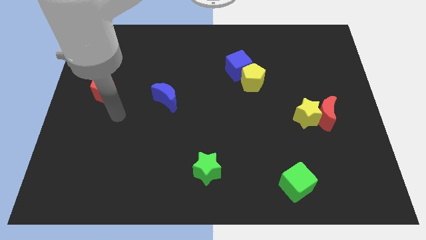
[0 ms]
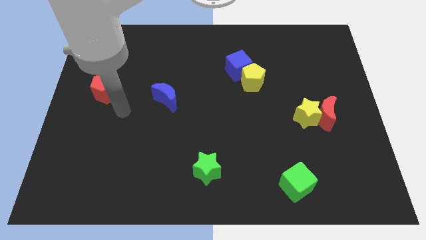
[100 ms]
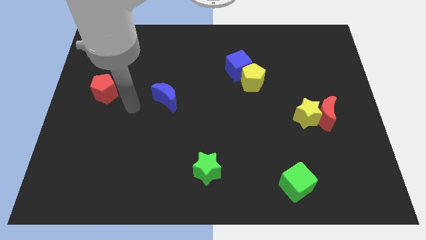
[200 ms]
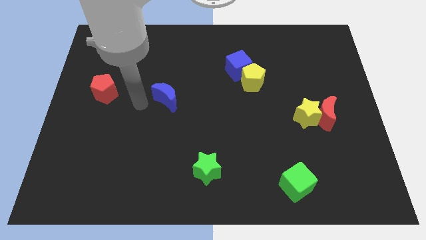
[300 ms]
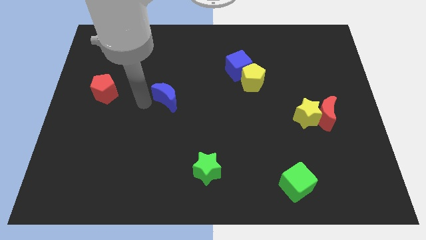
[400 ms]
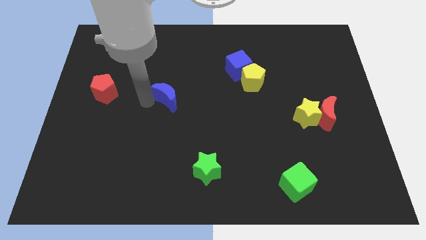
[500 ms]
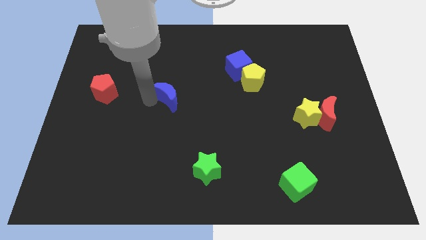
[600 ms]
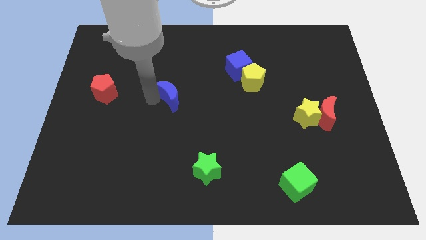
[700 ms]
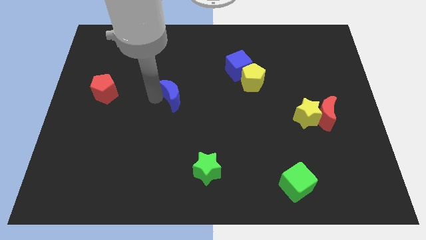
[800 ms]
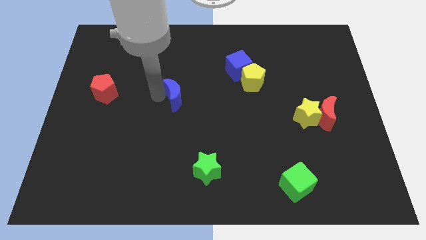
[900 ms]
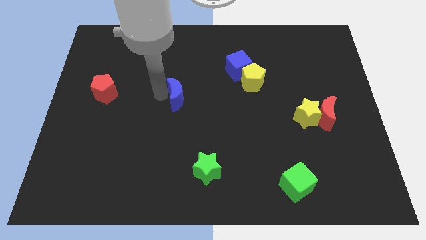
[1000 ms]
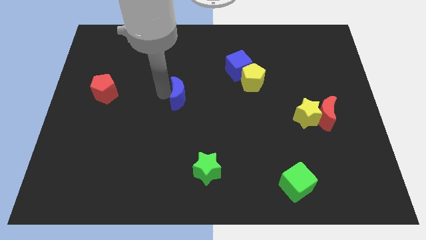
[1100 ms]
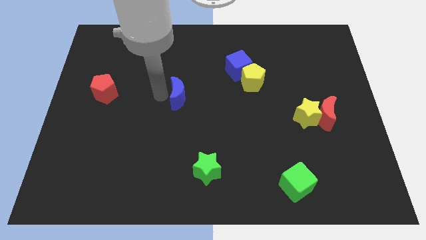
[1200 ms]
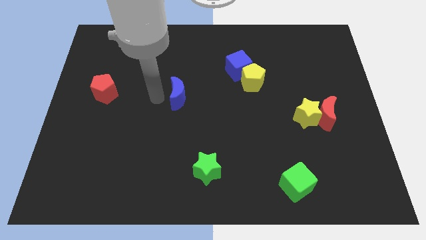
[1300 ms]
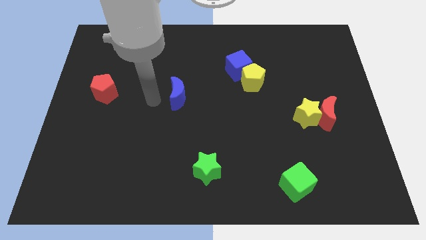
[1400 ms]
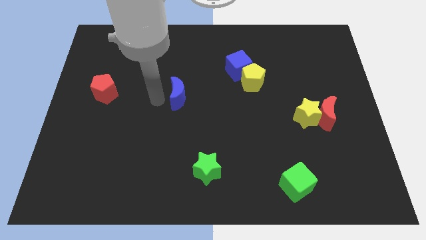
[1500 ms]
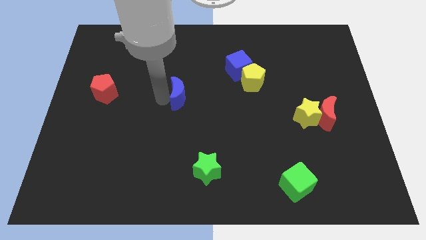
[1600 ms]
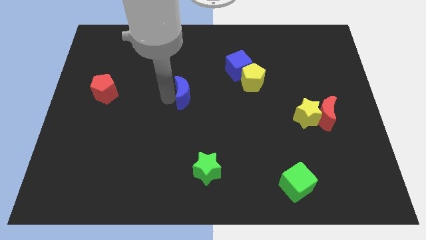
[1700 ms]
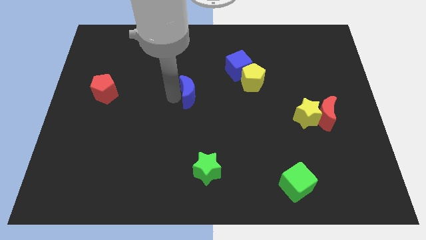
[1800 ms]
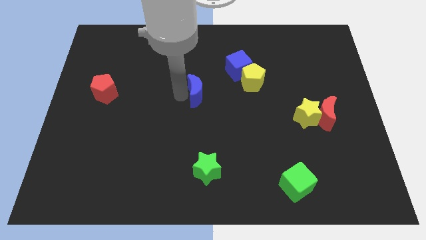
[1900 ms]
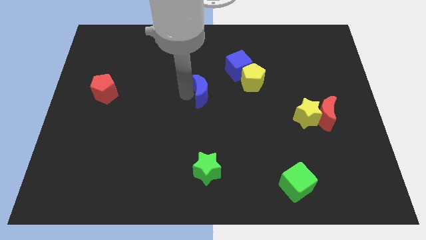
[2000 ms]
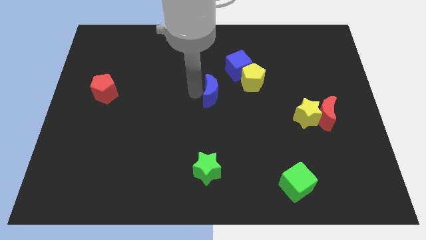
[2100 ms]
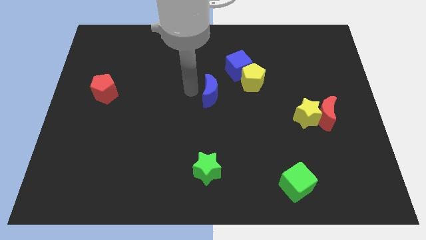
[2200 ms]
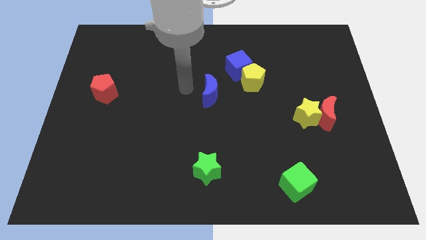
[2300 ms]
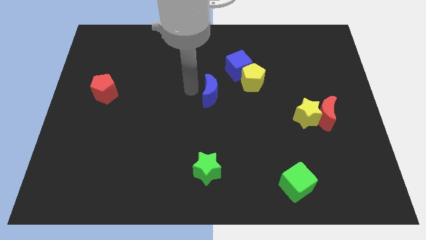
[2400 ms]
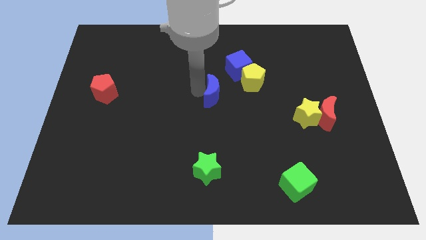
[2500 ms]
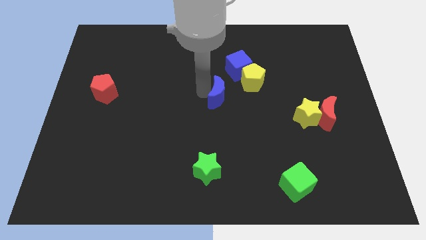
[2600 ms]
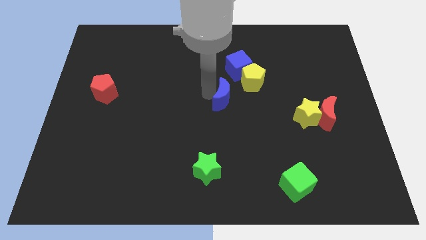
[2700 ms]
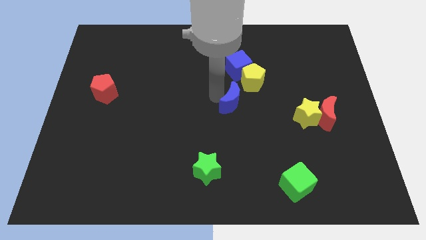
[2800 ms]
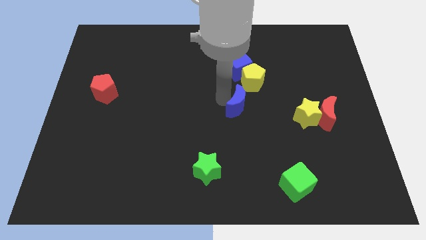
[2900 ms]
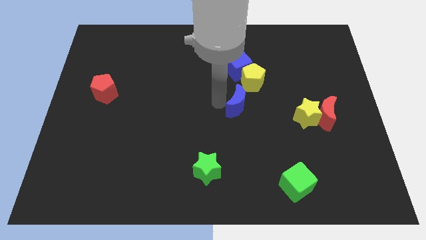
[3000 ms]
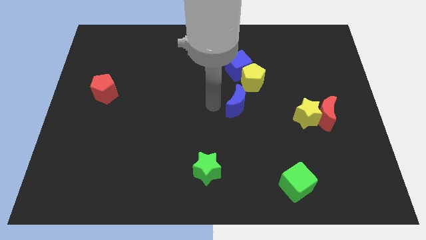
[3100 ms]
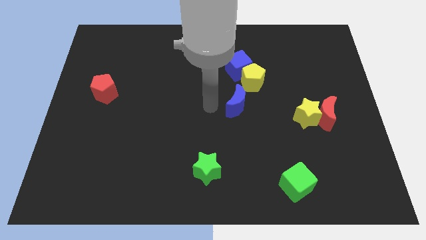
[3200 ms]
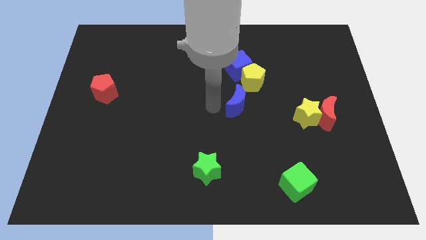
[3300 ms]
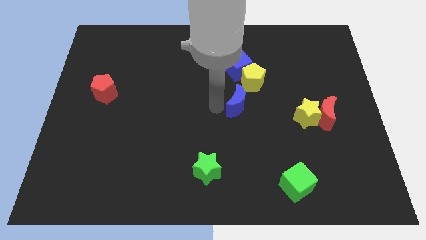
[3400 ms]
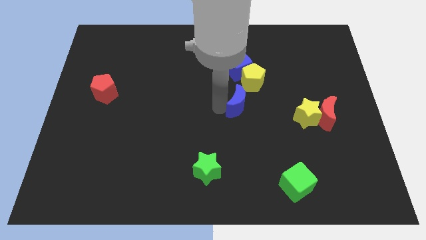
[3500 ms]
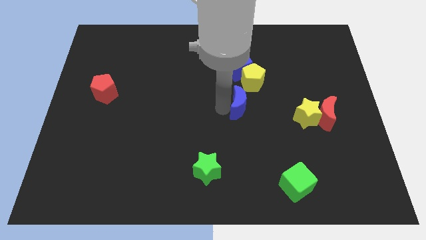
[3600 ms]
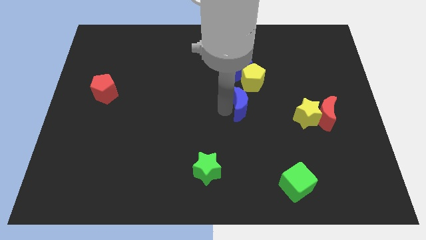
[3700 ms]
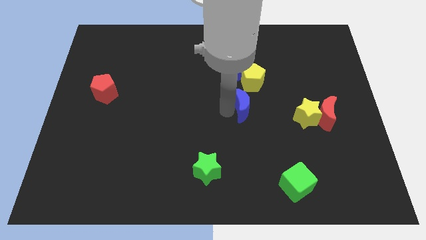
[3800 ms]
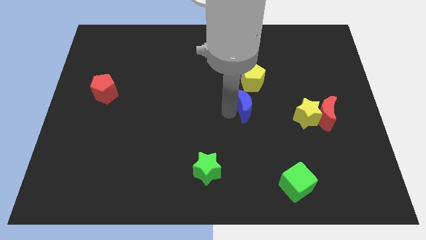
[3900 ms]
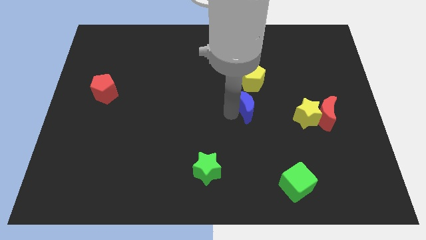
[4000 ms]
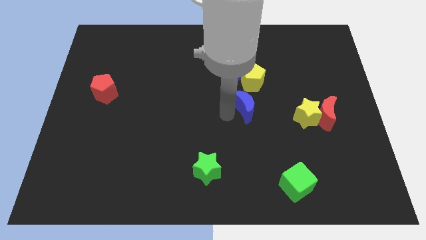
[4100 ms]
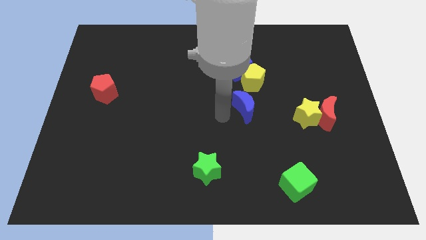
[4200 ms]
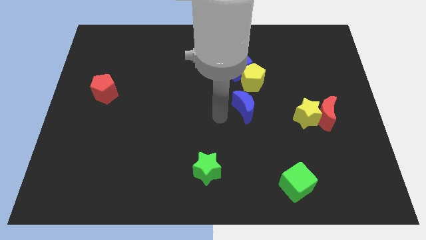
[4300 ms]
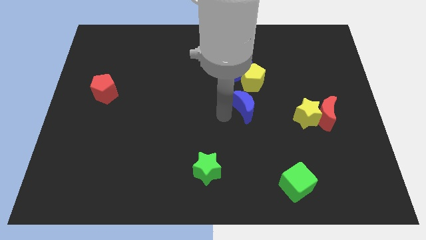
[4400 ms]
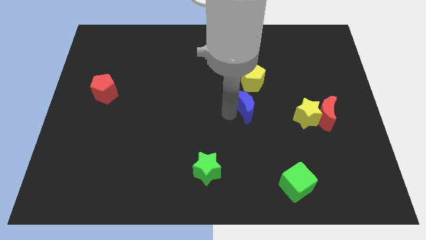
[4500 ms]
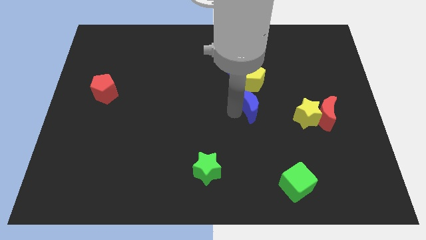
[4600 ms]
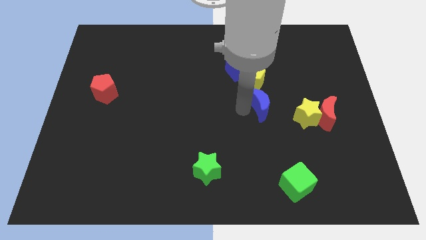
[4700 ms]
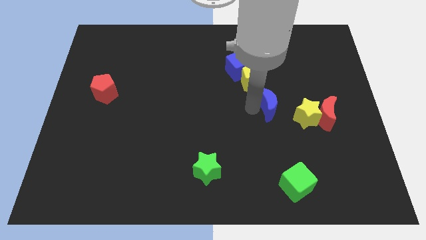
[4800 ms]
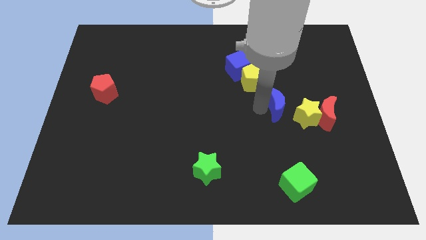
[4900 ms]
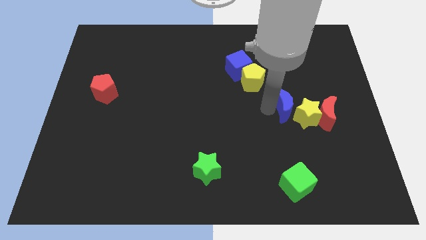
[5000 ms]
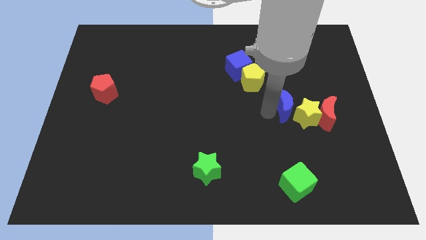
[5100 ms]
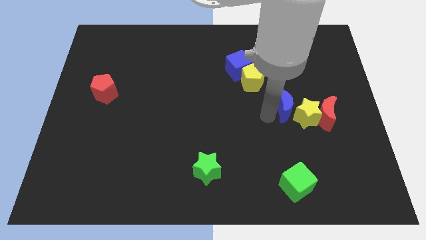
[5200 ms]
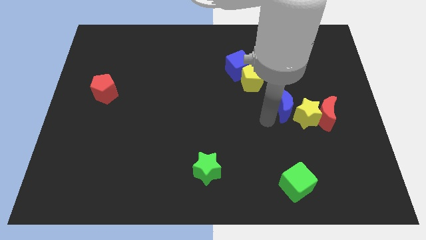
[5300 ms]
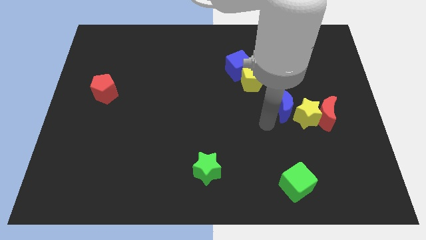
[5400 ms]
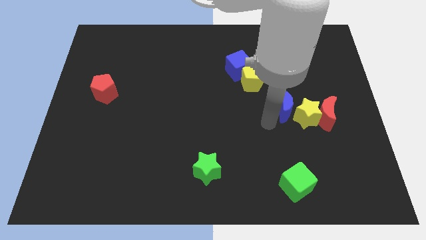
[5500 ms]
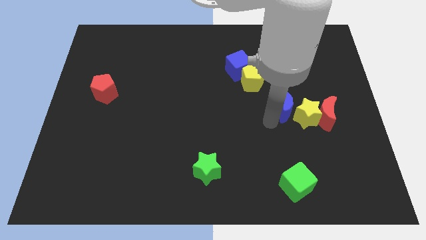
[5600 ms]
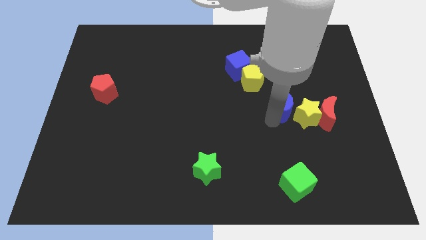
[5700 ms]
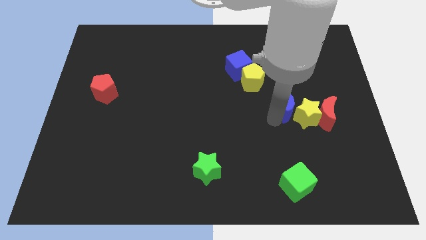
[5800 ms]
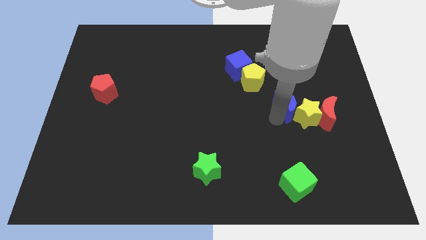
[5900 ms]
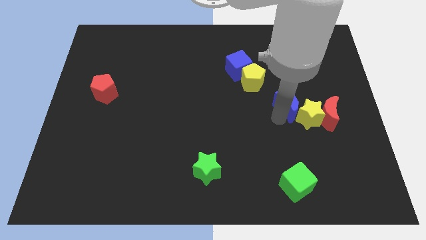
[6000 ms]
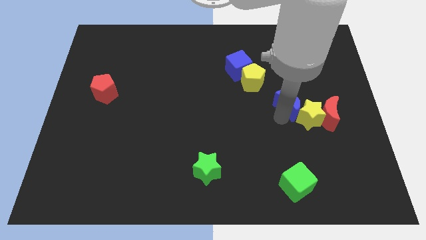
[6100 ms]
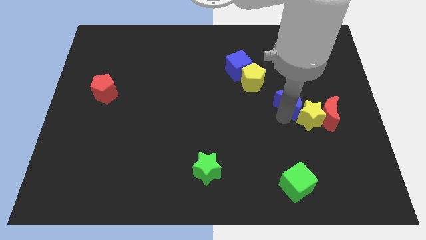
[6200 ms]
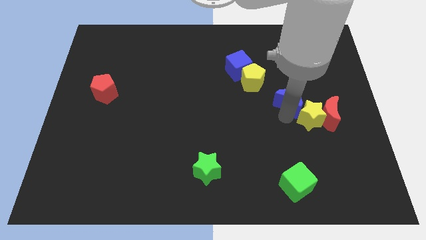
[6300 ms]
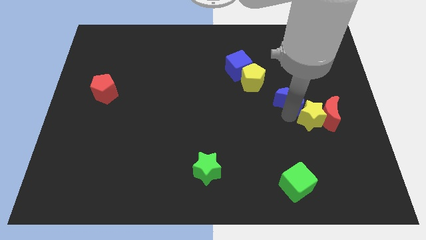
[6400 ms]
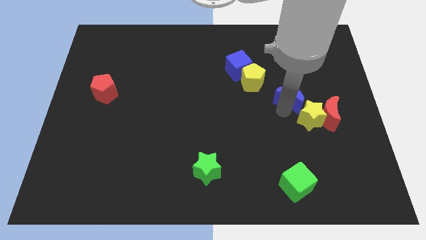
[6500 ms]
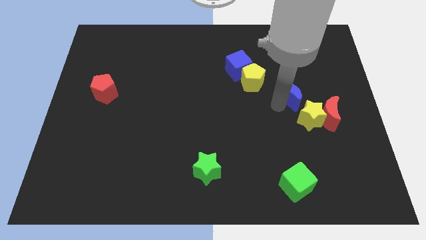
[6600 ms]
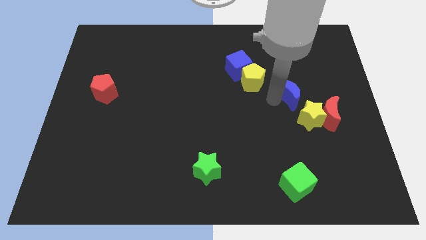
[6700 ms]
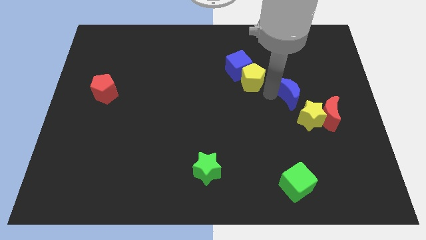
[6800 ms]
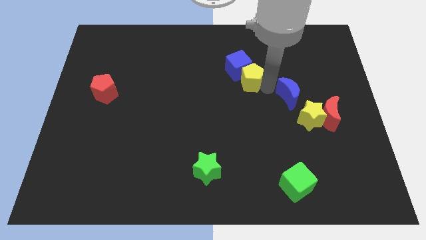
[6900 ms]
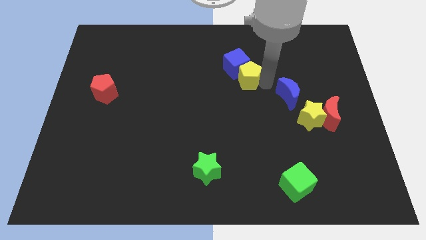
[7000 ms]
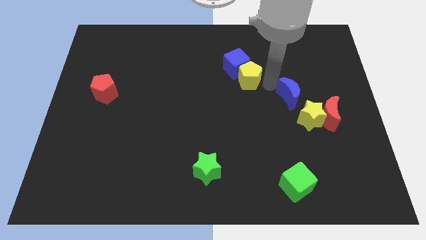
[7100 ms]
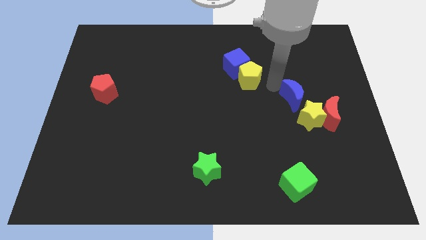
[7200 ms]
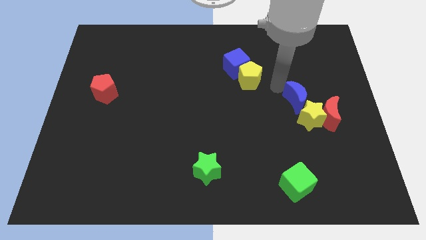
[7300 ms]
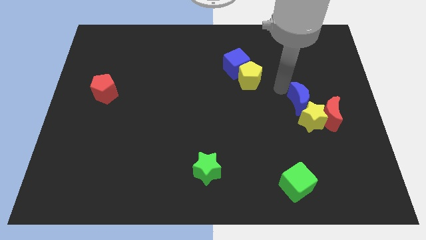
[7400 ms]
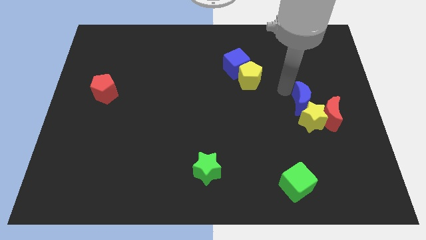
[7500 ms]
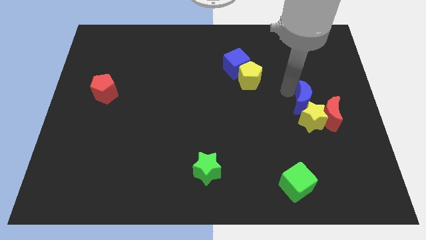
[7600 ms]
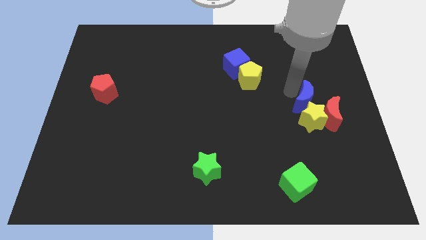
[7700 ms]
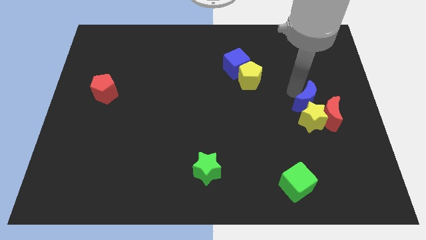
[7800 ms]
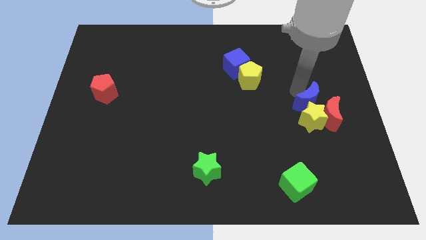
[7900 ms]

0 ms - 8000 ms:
push the blue moon towards the red moon
